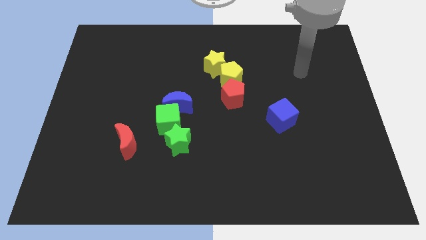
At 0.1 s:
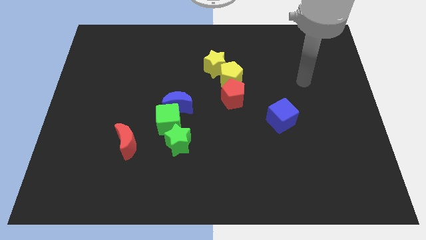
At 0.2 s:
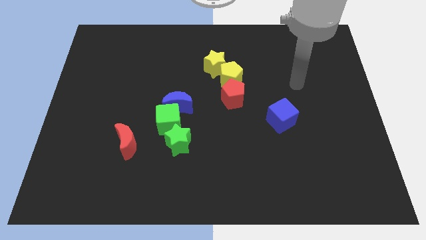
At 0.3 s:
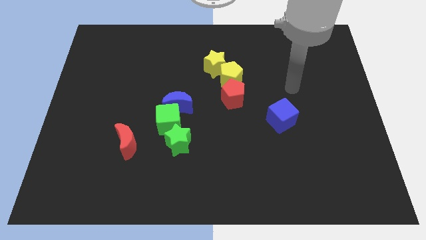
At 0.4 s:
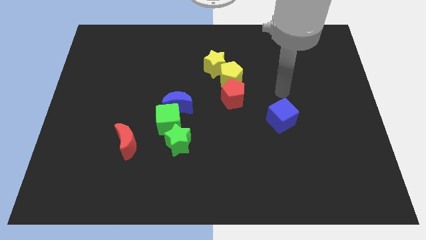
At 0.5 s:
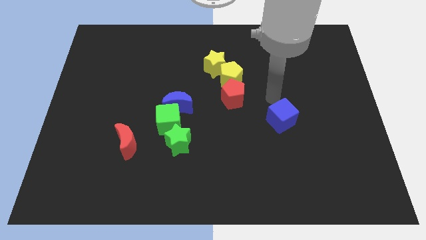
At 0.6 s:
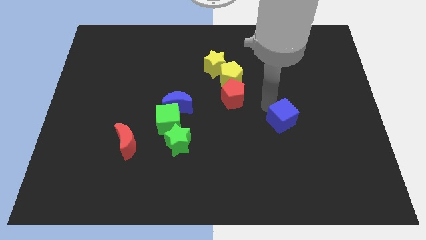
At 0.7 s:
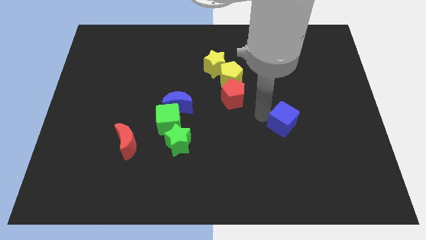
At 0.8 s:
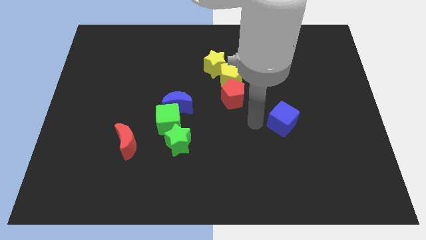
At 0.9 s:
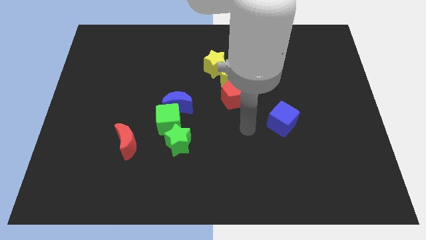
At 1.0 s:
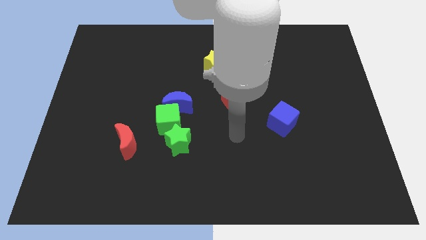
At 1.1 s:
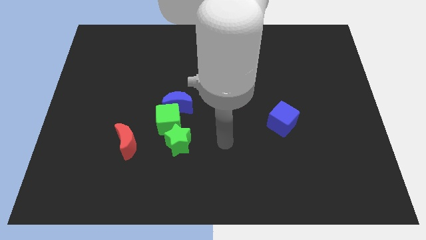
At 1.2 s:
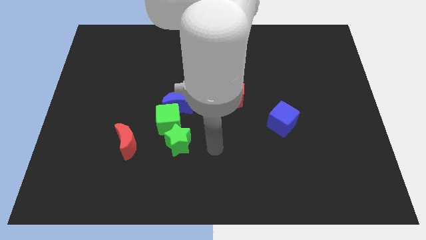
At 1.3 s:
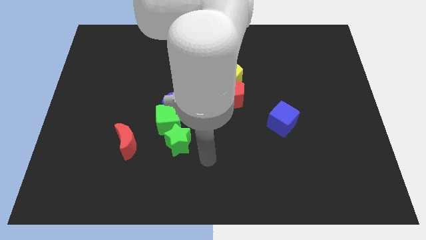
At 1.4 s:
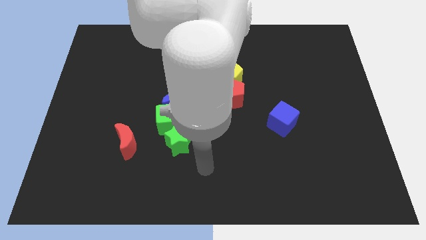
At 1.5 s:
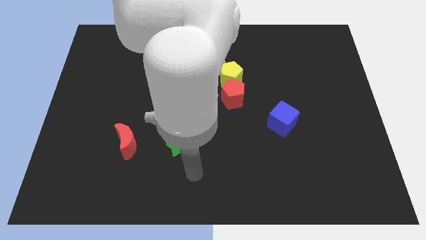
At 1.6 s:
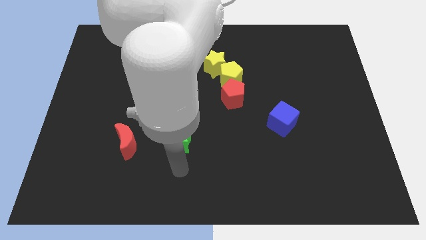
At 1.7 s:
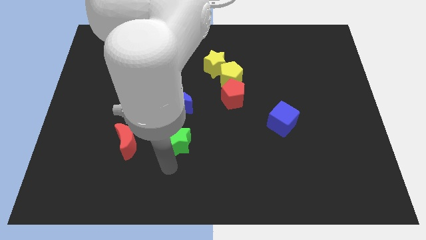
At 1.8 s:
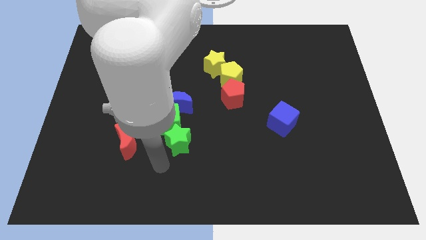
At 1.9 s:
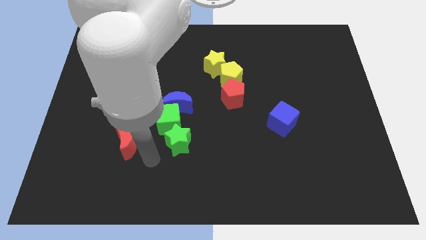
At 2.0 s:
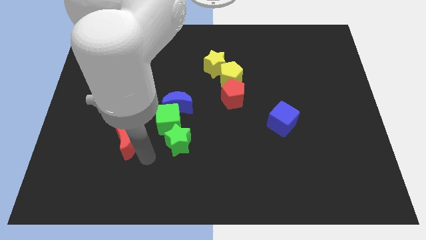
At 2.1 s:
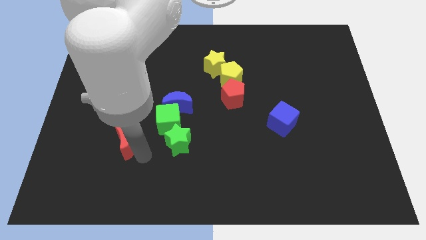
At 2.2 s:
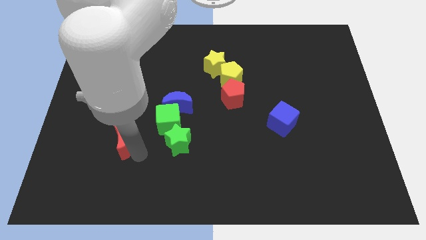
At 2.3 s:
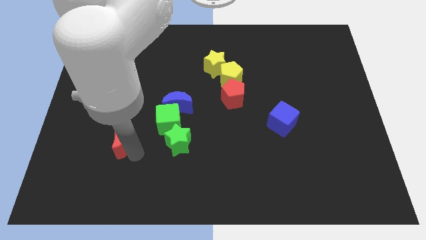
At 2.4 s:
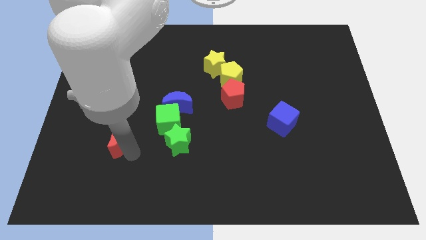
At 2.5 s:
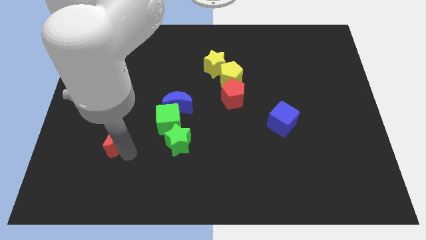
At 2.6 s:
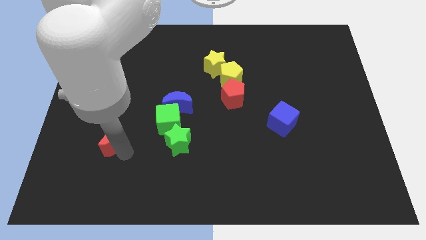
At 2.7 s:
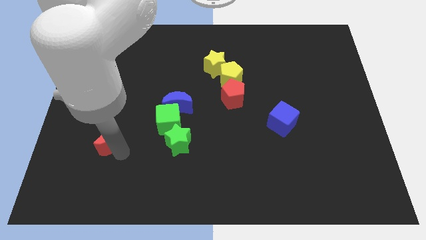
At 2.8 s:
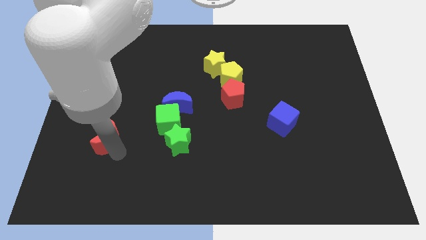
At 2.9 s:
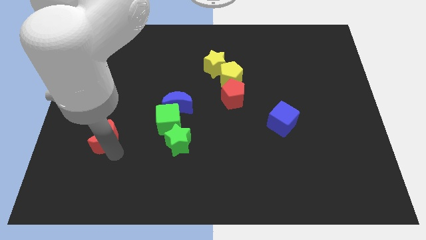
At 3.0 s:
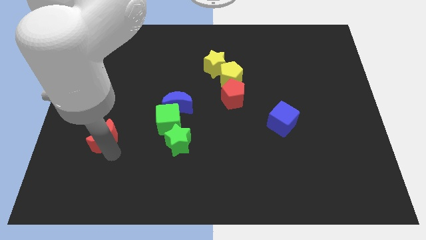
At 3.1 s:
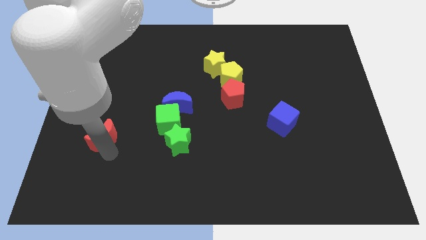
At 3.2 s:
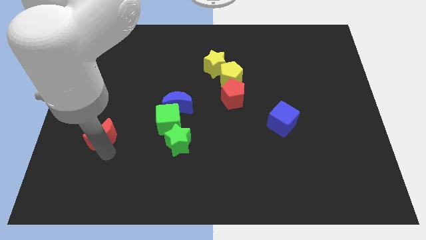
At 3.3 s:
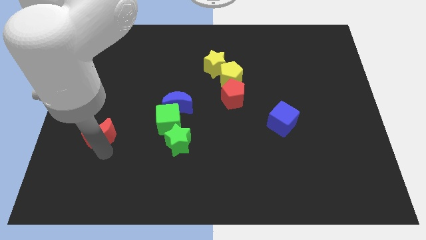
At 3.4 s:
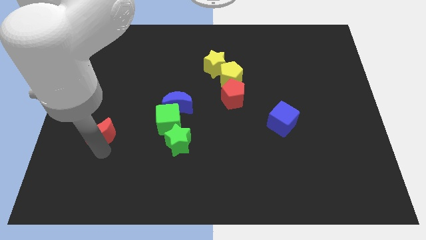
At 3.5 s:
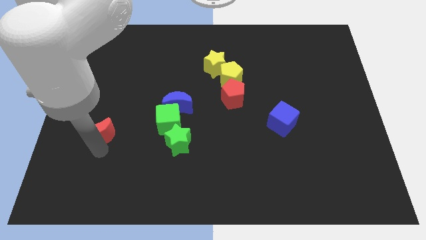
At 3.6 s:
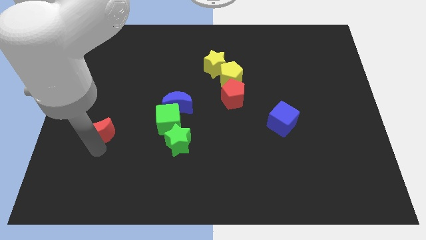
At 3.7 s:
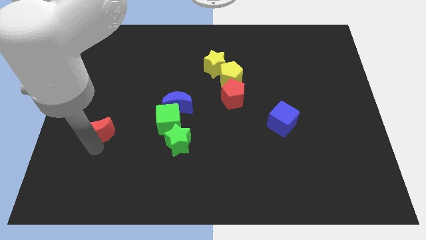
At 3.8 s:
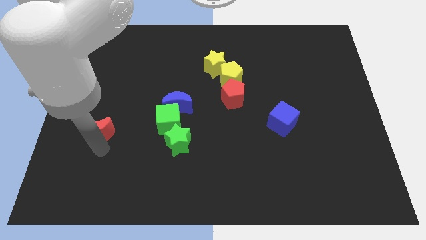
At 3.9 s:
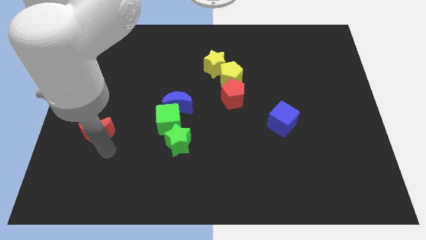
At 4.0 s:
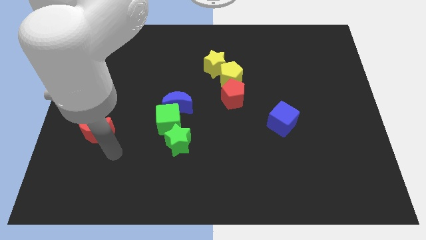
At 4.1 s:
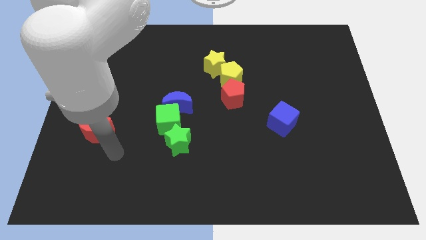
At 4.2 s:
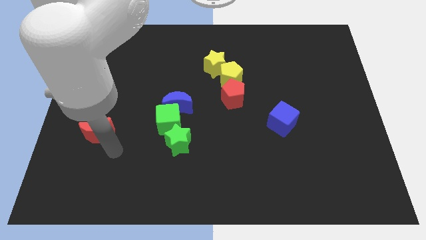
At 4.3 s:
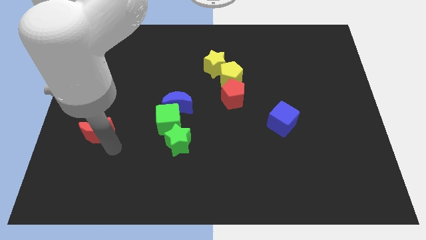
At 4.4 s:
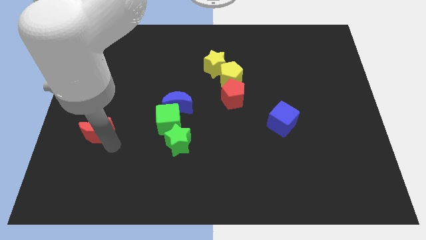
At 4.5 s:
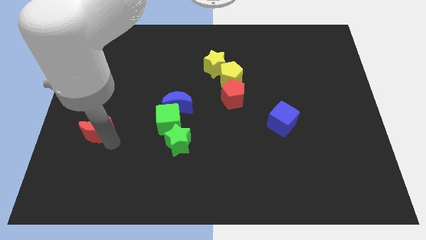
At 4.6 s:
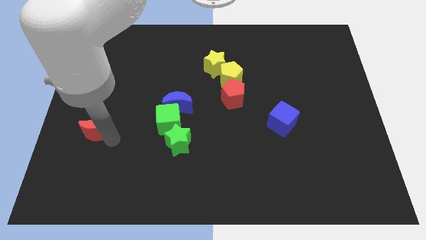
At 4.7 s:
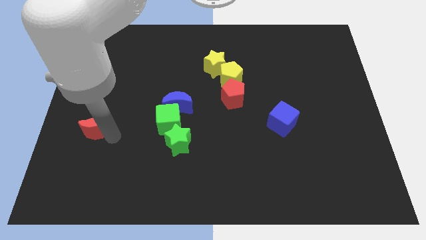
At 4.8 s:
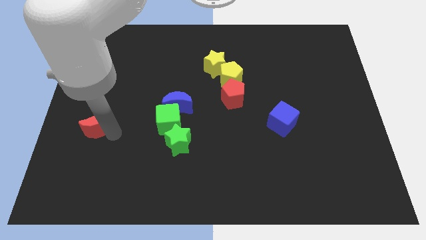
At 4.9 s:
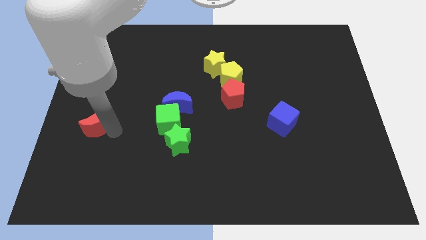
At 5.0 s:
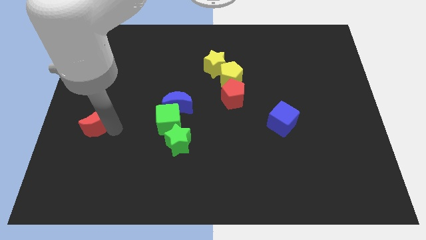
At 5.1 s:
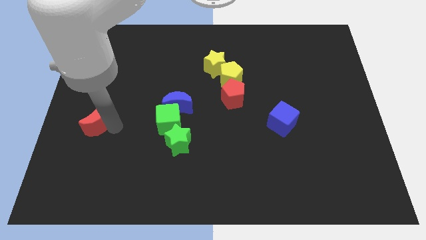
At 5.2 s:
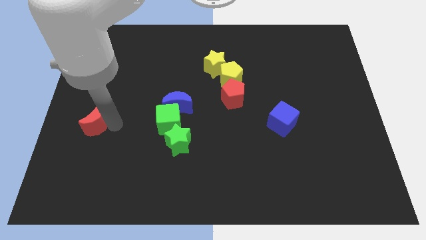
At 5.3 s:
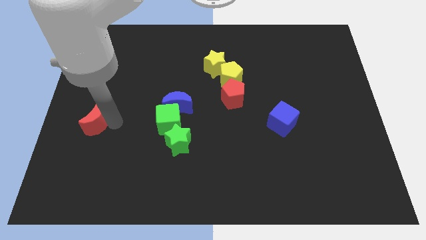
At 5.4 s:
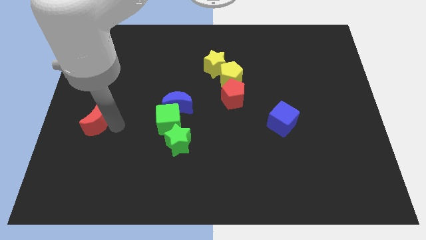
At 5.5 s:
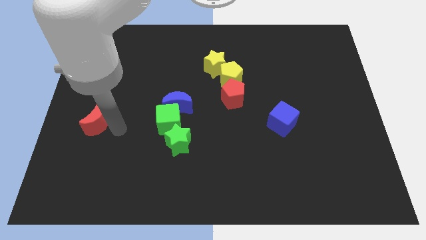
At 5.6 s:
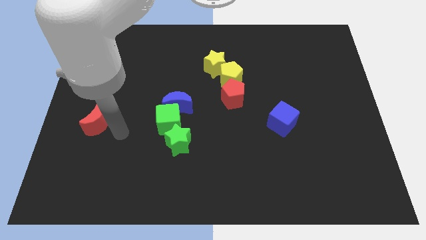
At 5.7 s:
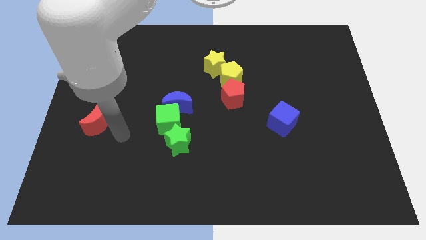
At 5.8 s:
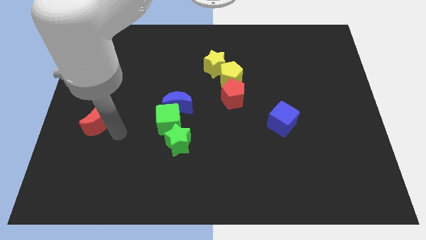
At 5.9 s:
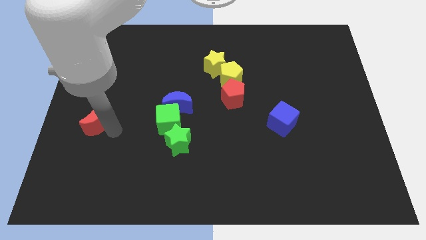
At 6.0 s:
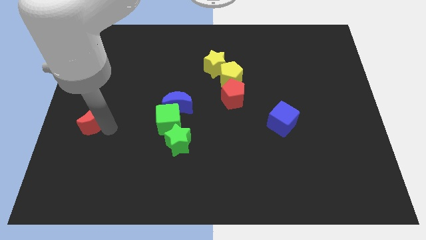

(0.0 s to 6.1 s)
push the red moon to the left side of the board

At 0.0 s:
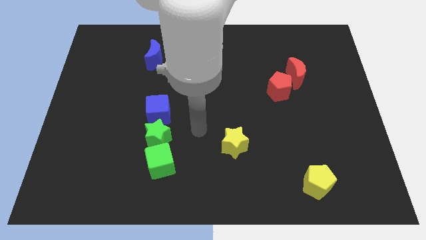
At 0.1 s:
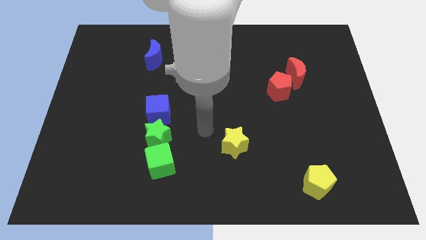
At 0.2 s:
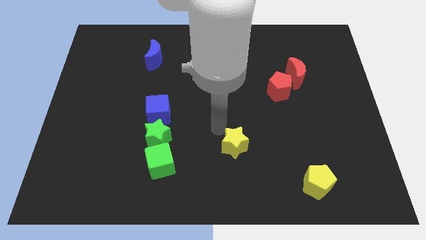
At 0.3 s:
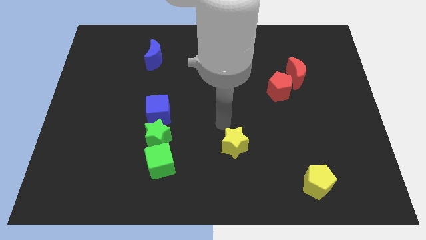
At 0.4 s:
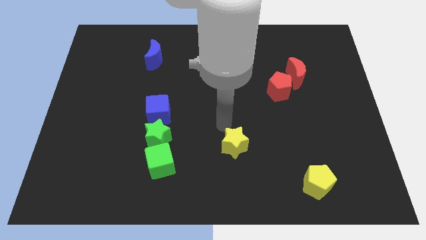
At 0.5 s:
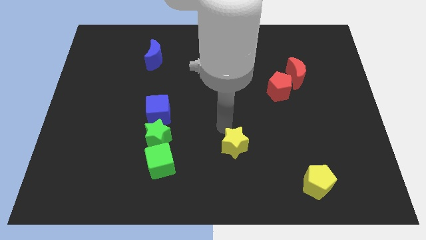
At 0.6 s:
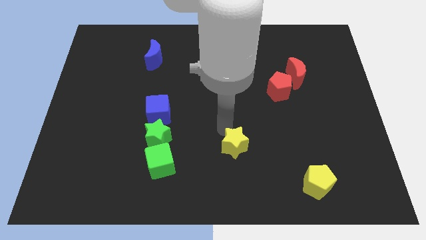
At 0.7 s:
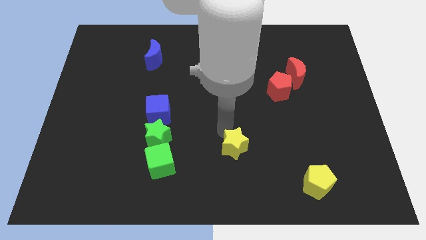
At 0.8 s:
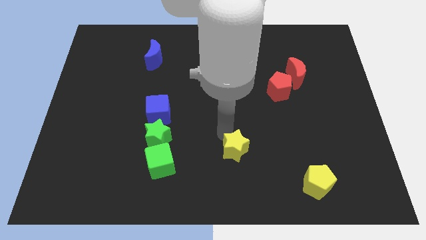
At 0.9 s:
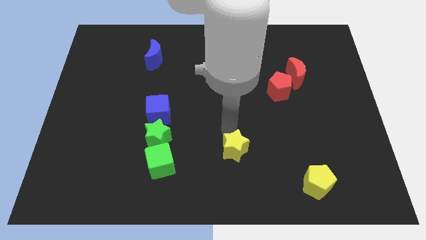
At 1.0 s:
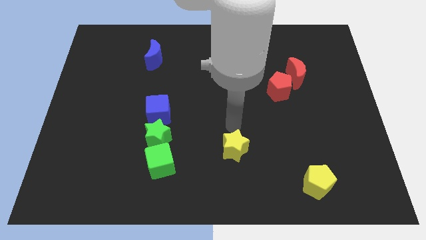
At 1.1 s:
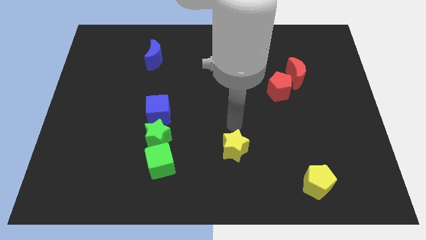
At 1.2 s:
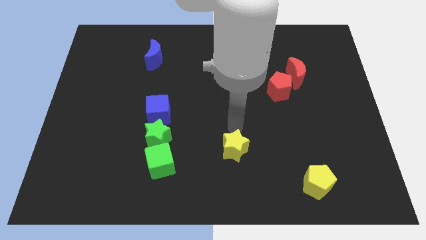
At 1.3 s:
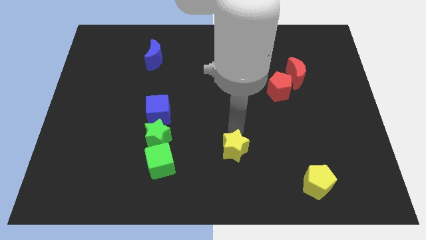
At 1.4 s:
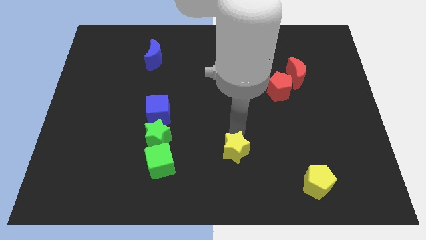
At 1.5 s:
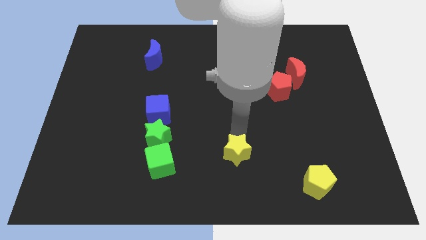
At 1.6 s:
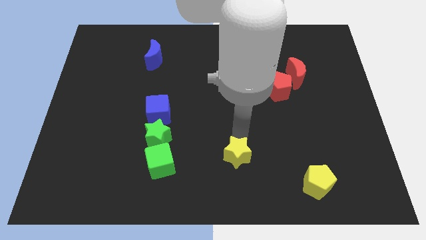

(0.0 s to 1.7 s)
slide the yellow star to the bottom side
